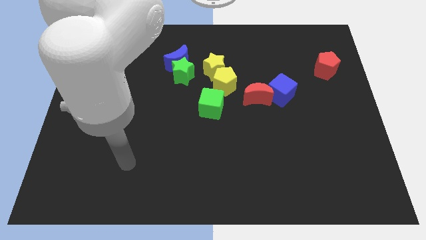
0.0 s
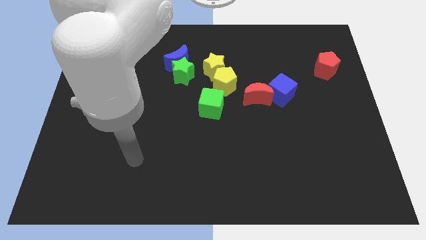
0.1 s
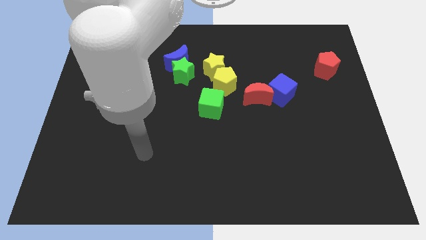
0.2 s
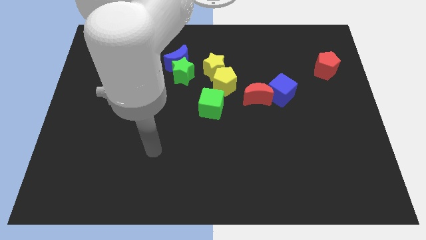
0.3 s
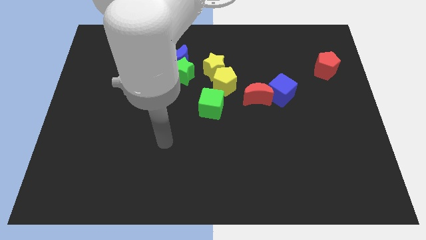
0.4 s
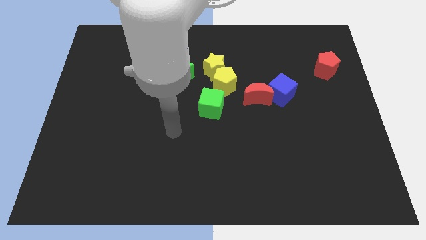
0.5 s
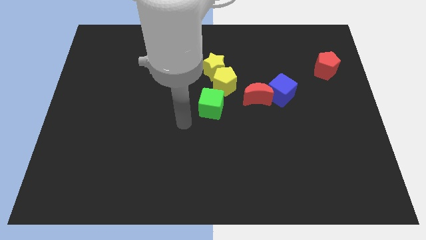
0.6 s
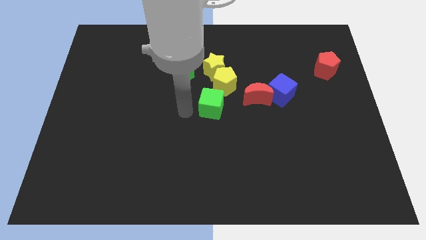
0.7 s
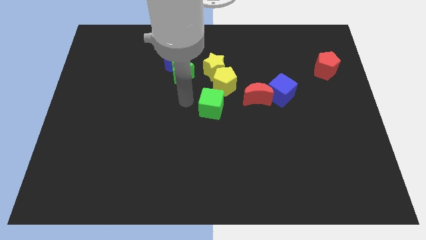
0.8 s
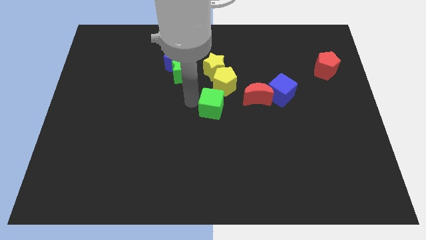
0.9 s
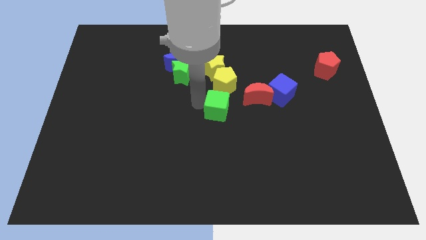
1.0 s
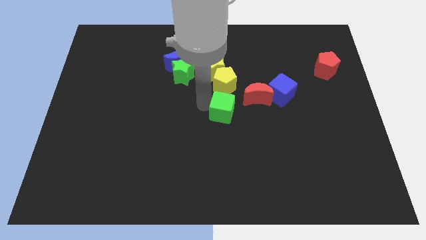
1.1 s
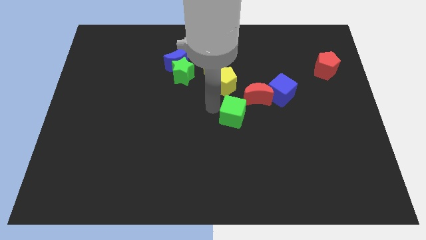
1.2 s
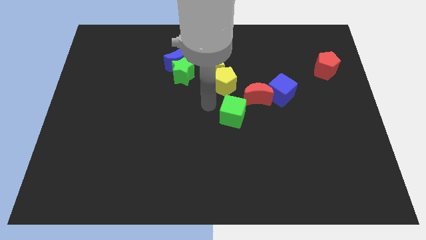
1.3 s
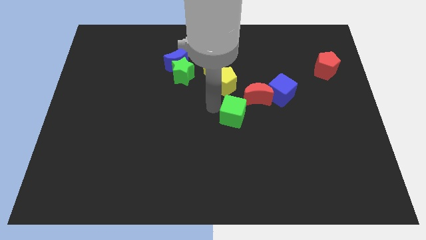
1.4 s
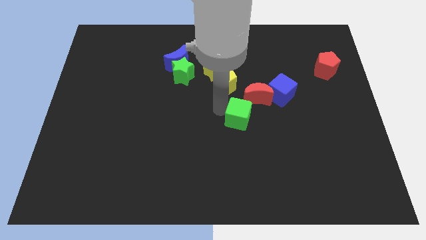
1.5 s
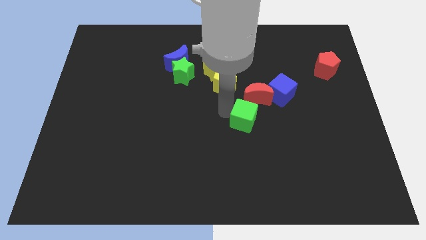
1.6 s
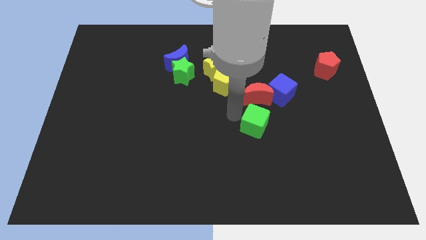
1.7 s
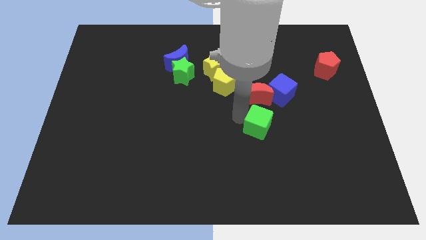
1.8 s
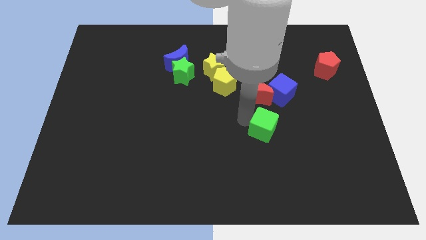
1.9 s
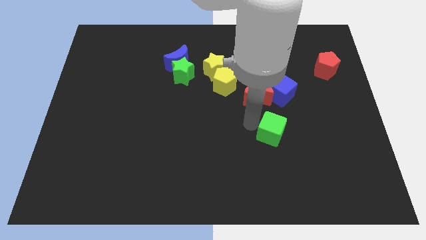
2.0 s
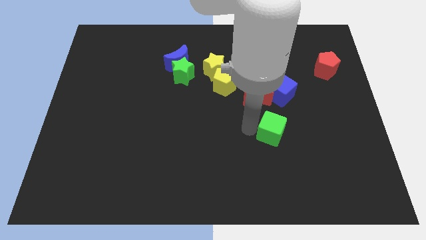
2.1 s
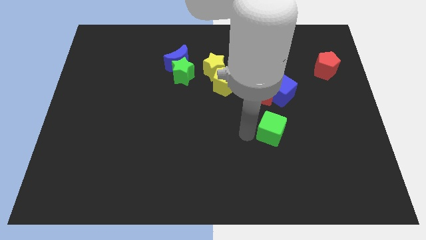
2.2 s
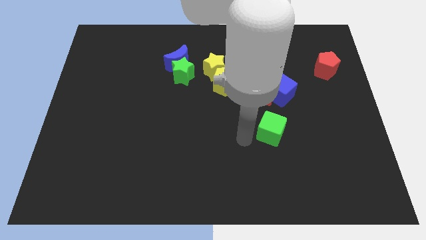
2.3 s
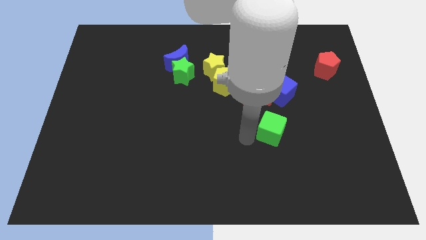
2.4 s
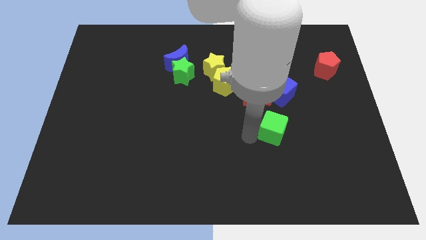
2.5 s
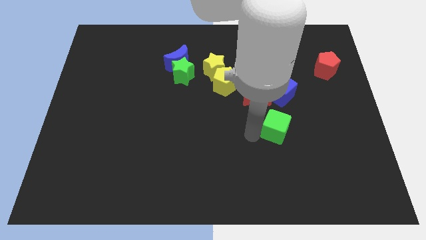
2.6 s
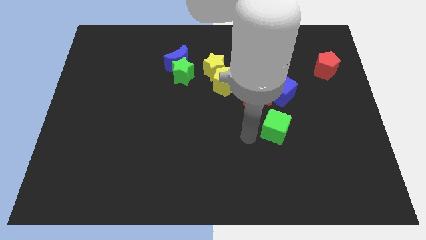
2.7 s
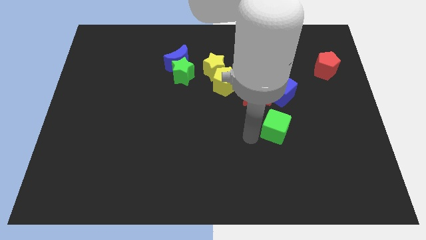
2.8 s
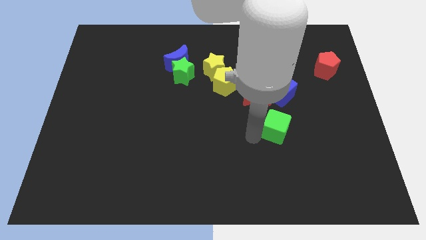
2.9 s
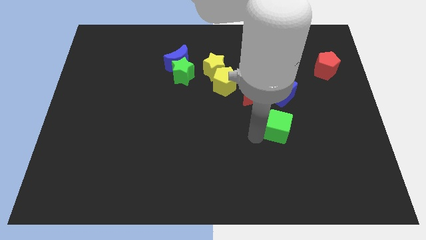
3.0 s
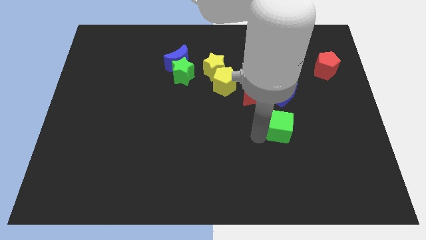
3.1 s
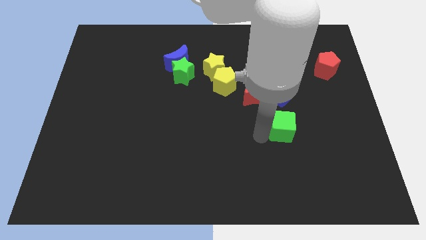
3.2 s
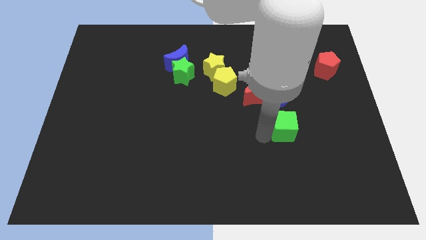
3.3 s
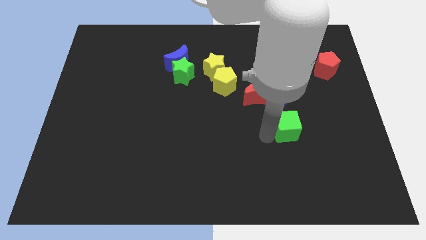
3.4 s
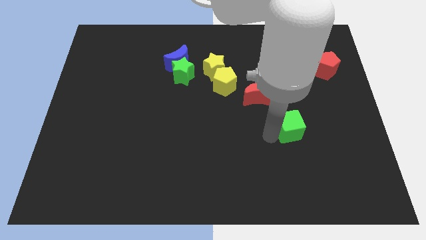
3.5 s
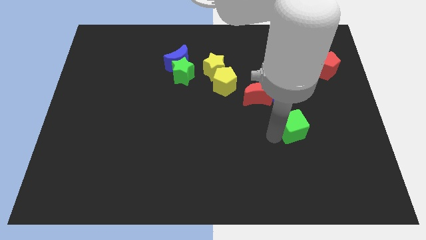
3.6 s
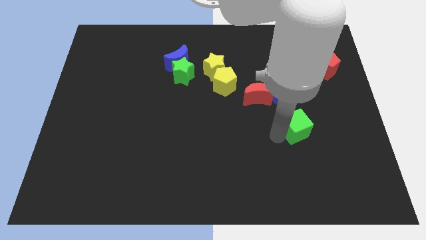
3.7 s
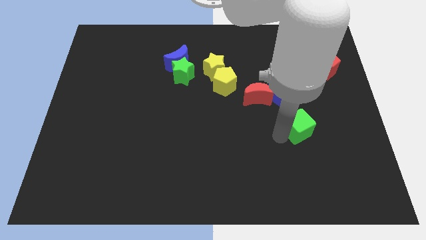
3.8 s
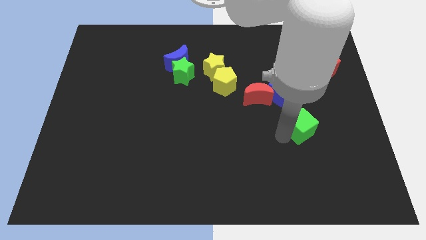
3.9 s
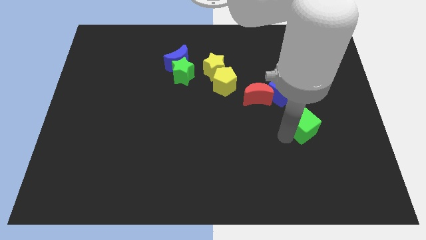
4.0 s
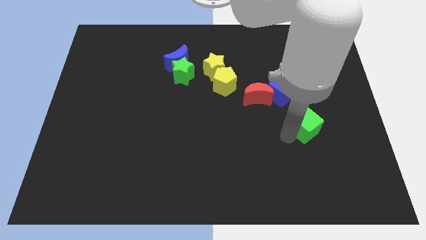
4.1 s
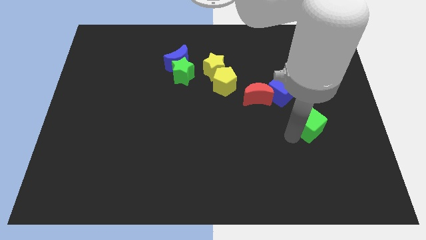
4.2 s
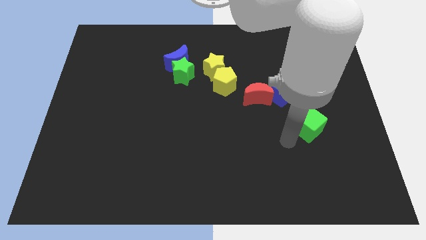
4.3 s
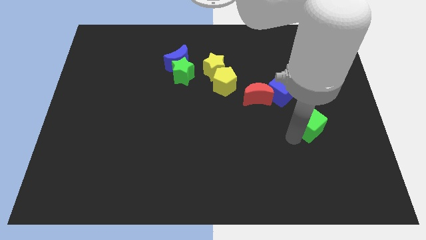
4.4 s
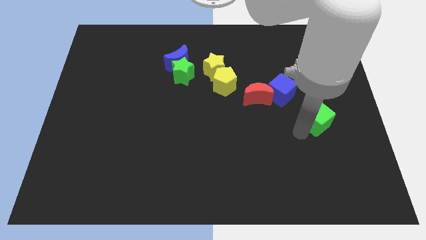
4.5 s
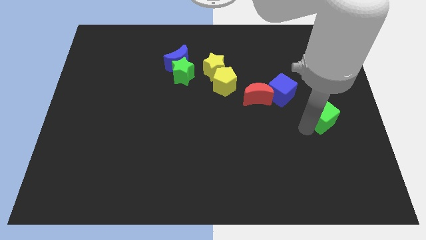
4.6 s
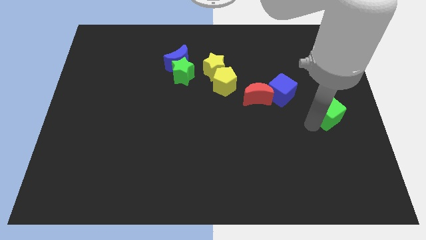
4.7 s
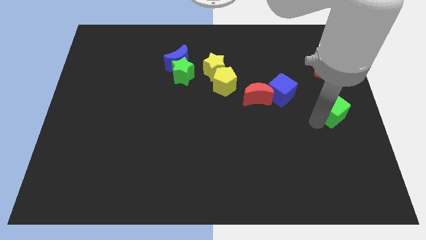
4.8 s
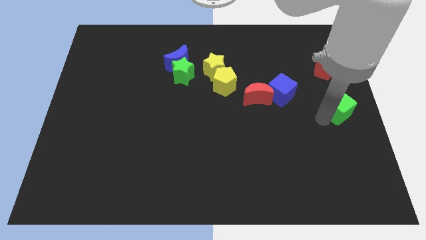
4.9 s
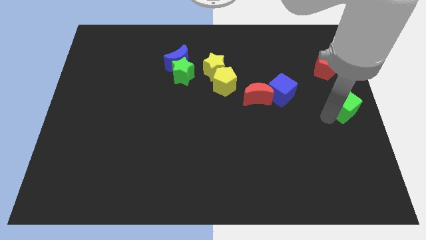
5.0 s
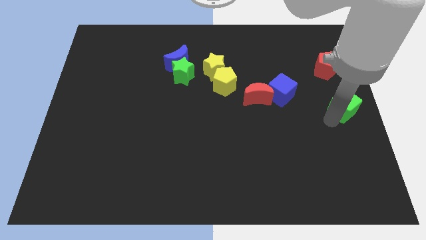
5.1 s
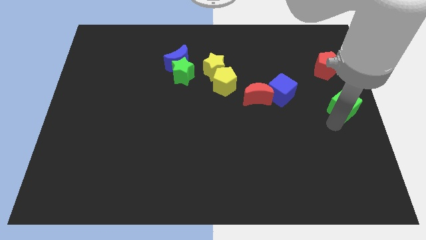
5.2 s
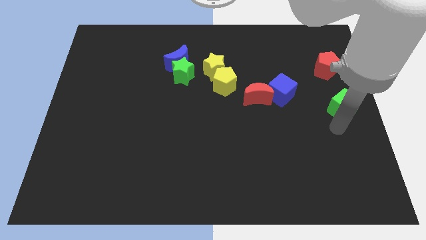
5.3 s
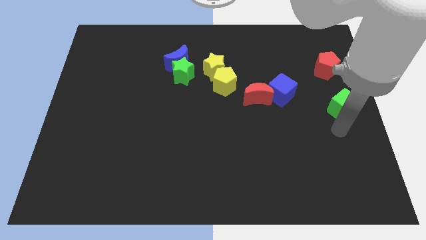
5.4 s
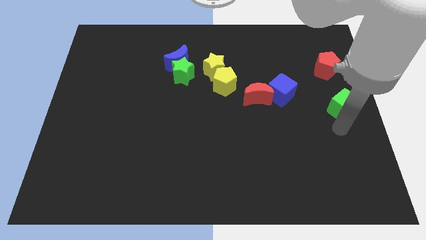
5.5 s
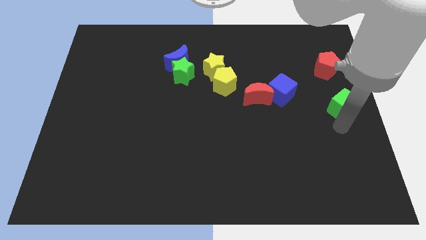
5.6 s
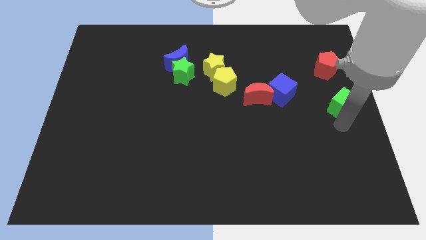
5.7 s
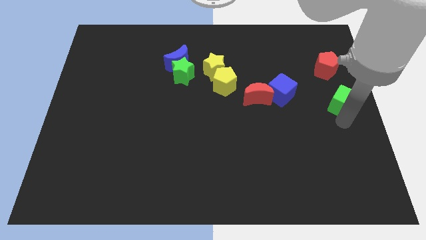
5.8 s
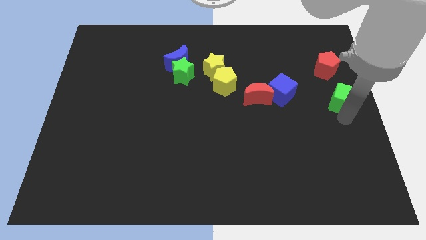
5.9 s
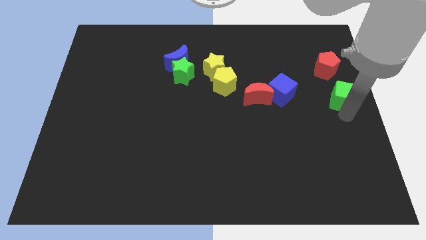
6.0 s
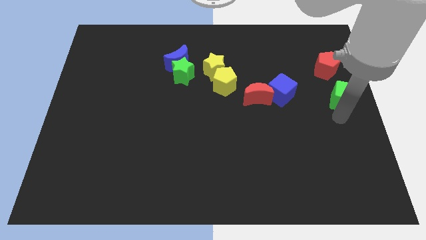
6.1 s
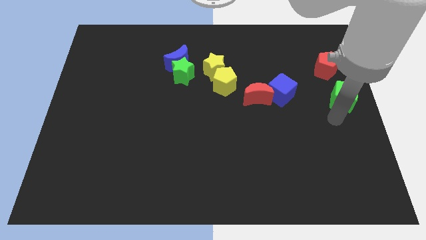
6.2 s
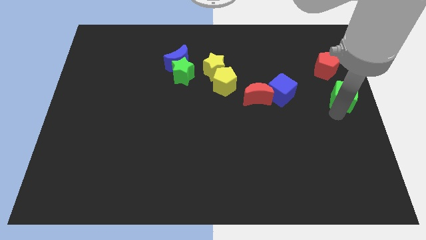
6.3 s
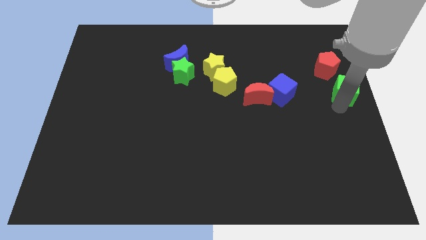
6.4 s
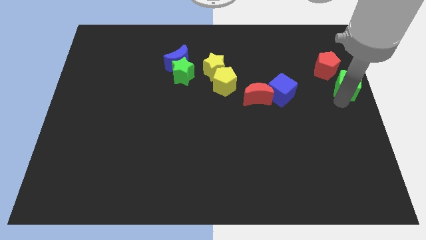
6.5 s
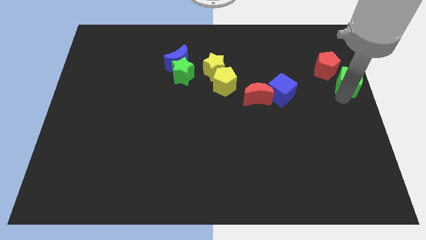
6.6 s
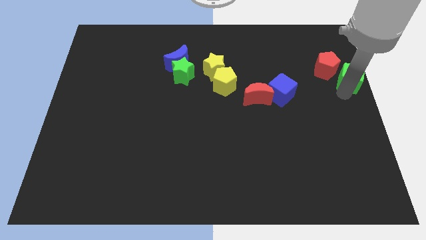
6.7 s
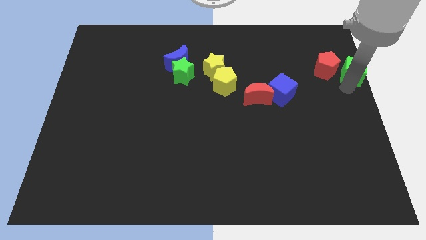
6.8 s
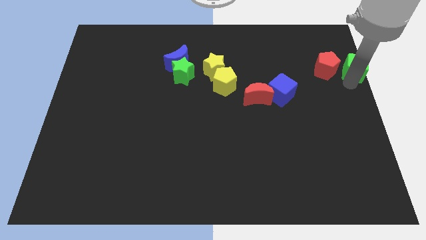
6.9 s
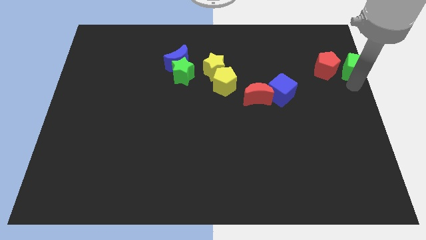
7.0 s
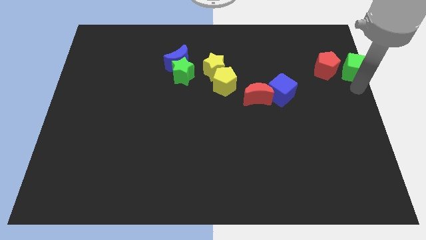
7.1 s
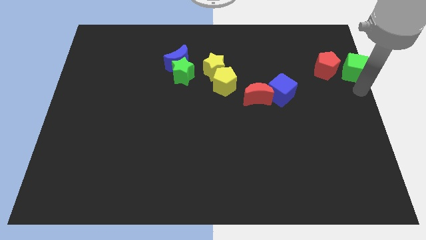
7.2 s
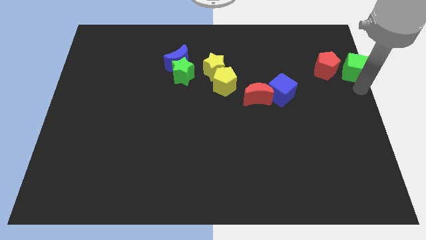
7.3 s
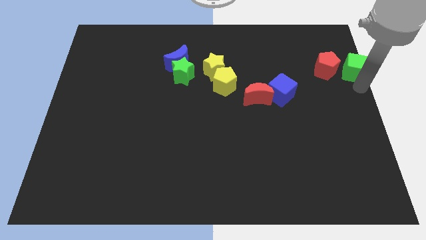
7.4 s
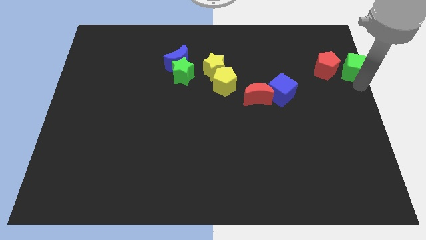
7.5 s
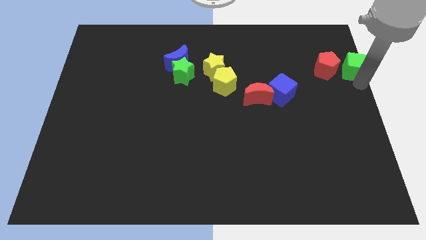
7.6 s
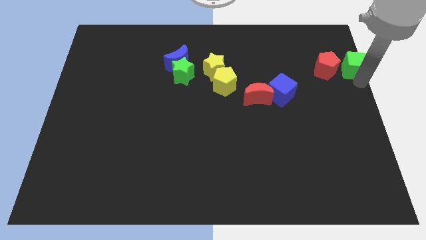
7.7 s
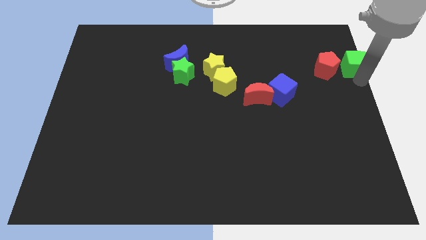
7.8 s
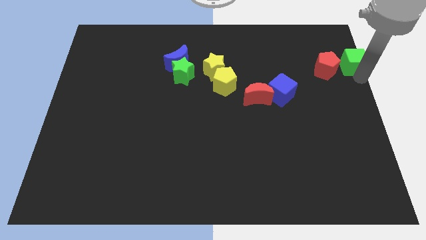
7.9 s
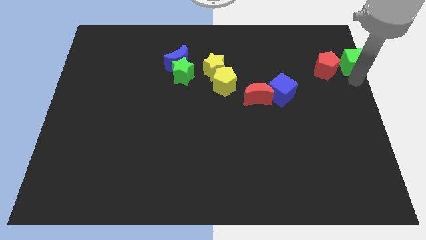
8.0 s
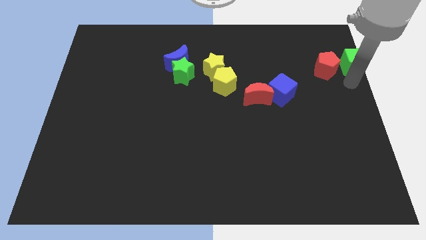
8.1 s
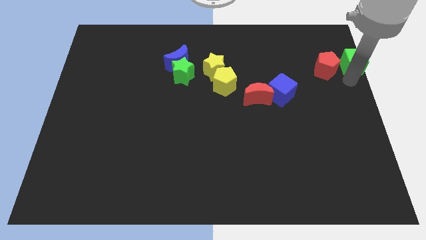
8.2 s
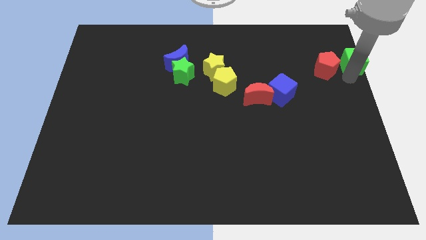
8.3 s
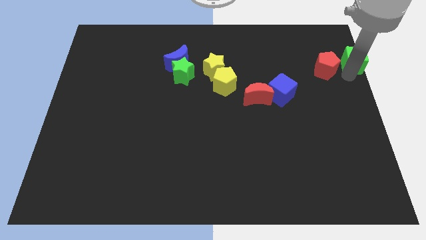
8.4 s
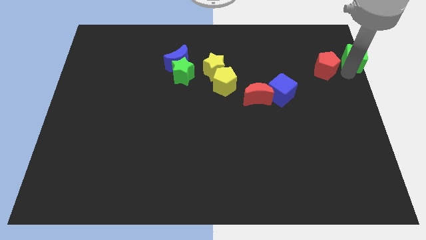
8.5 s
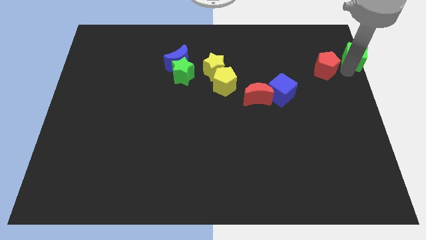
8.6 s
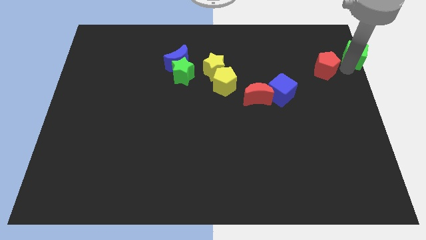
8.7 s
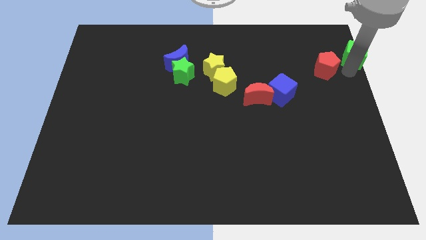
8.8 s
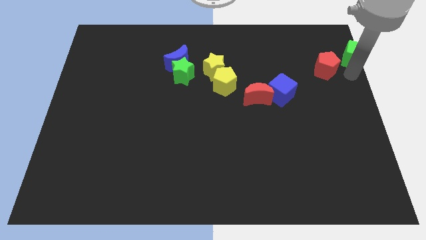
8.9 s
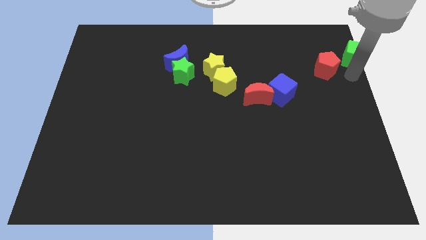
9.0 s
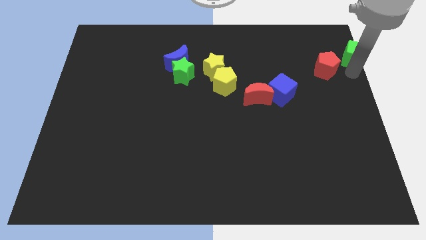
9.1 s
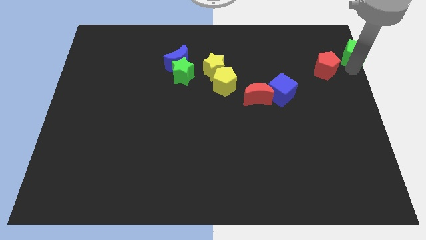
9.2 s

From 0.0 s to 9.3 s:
put the green cube to the upper right corner
